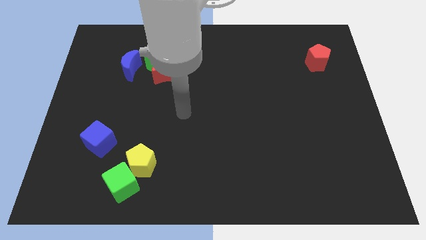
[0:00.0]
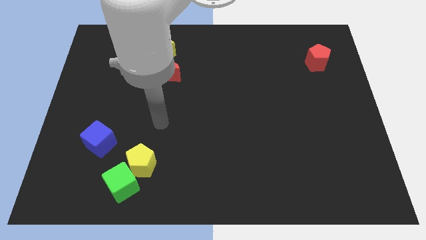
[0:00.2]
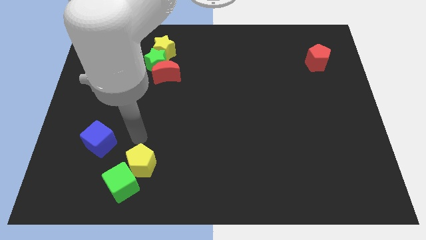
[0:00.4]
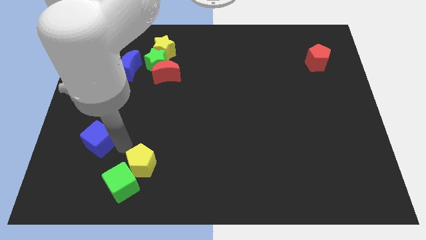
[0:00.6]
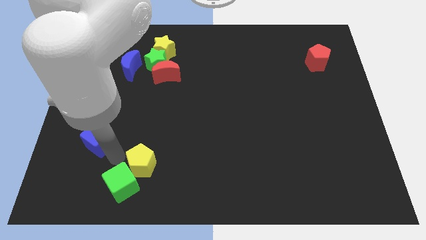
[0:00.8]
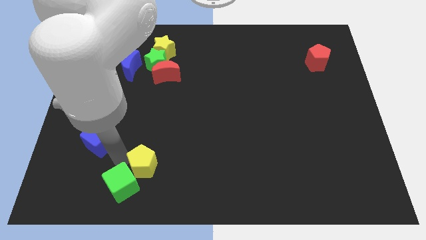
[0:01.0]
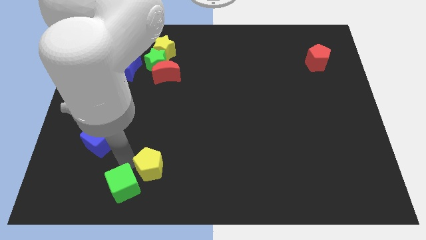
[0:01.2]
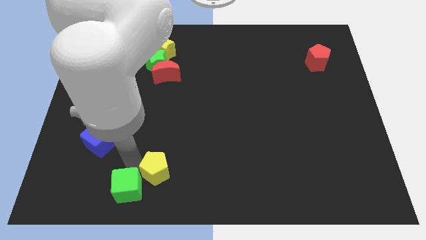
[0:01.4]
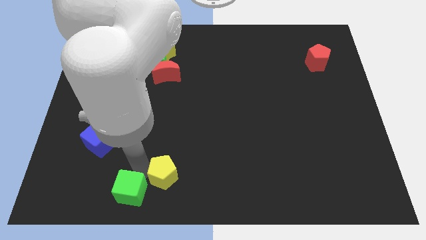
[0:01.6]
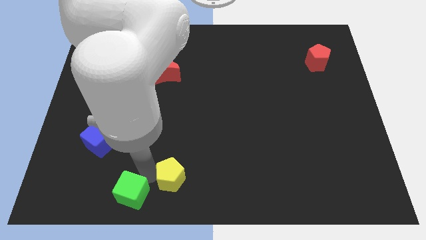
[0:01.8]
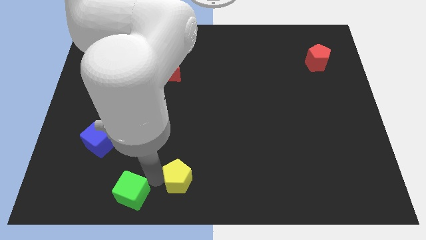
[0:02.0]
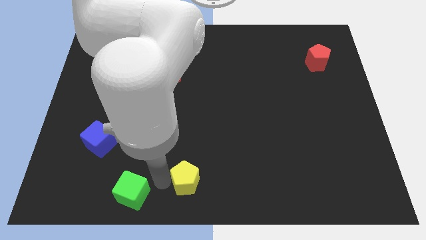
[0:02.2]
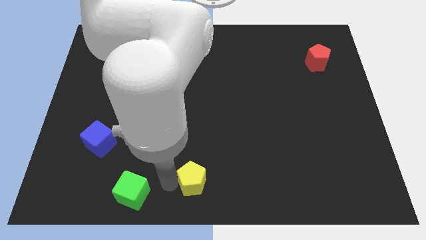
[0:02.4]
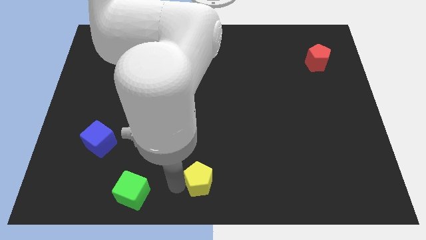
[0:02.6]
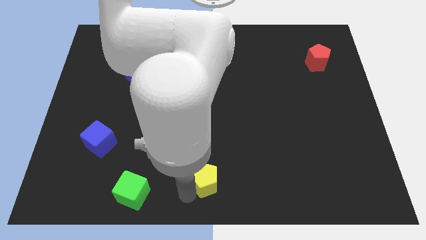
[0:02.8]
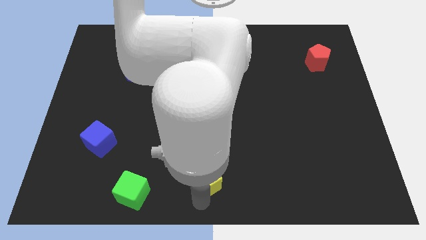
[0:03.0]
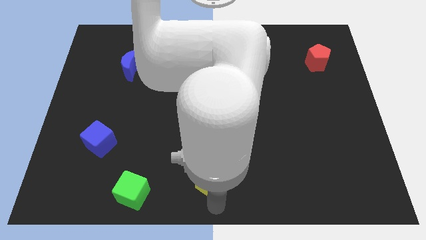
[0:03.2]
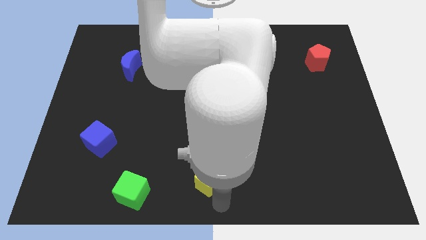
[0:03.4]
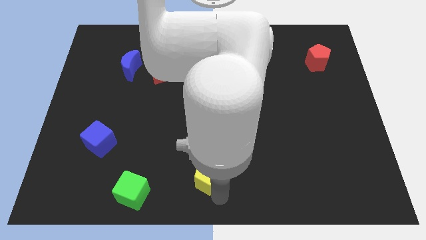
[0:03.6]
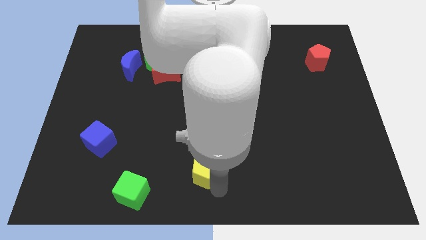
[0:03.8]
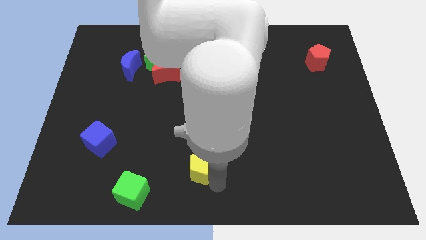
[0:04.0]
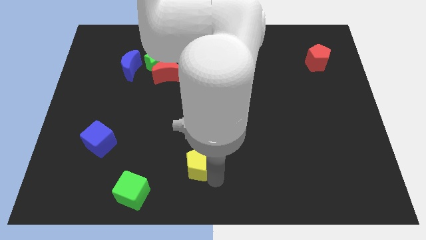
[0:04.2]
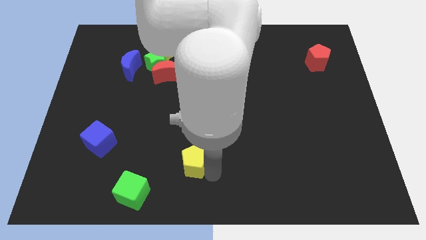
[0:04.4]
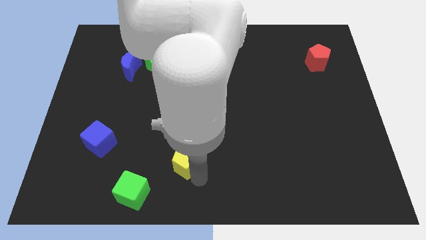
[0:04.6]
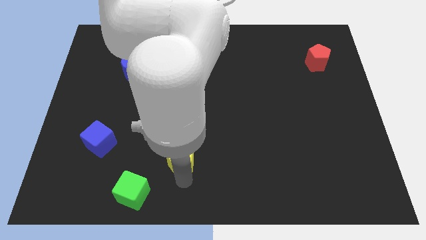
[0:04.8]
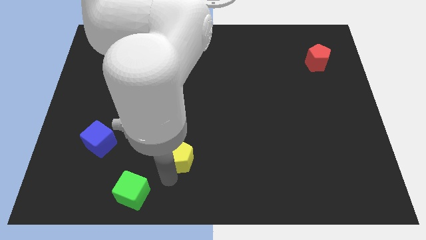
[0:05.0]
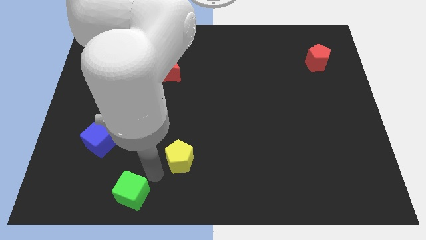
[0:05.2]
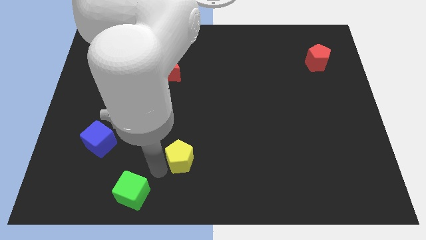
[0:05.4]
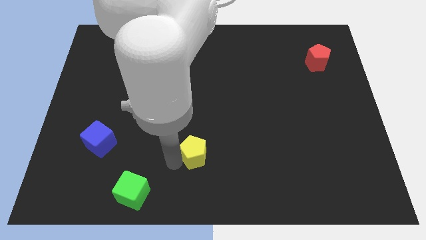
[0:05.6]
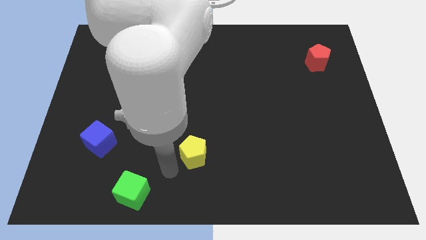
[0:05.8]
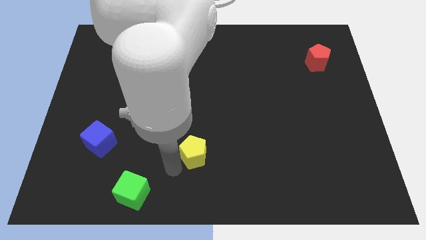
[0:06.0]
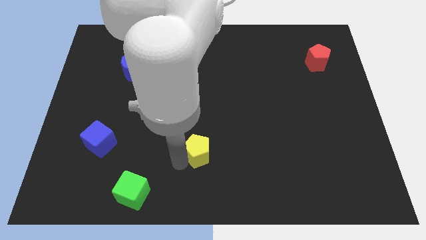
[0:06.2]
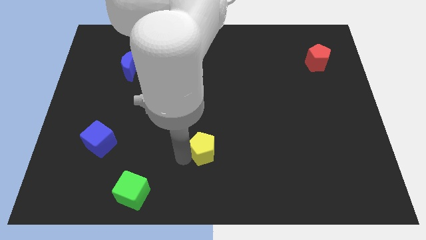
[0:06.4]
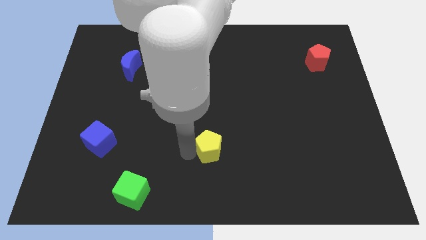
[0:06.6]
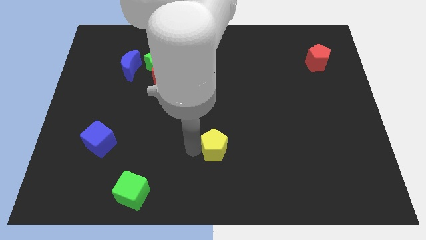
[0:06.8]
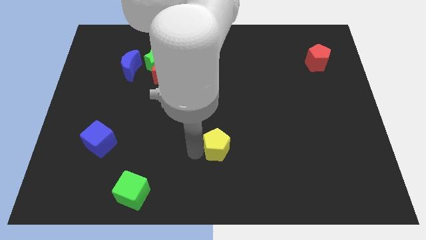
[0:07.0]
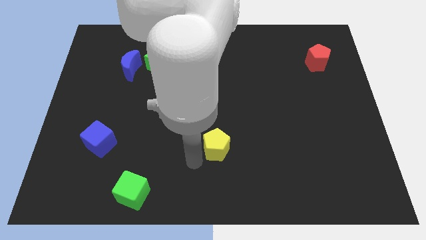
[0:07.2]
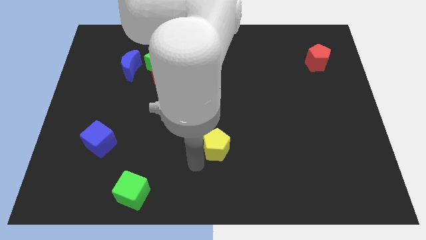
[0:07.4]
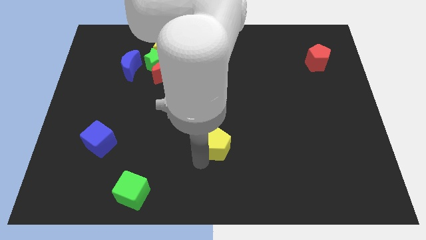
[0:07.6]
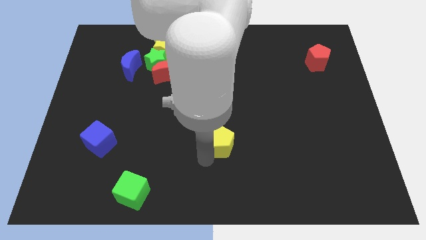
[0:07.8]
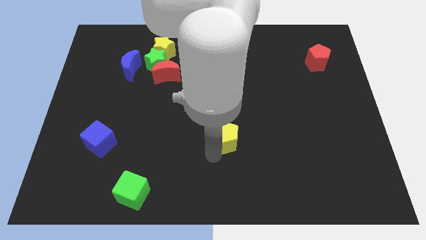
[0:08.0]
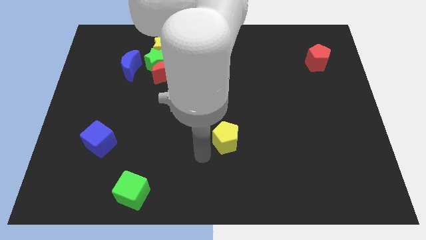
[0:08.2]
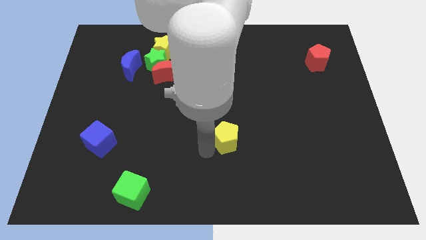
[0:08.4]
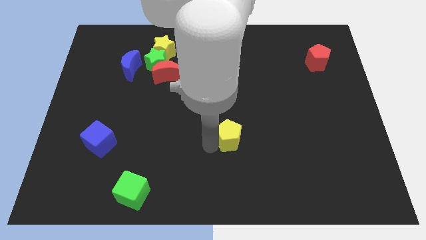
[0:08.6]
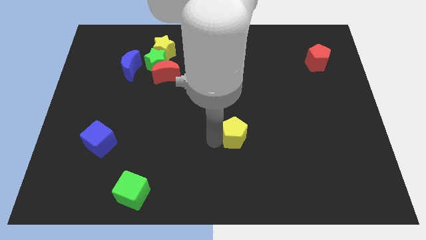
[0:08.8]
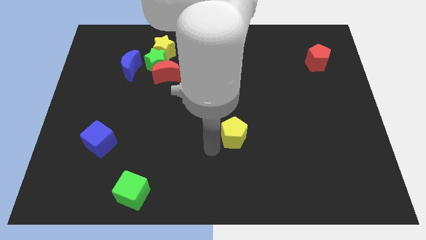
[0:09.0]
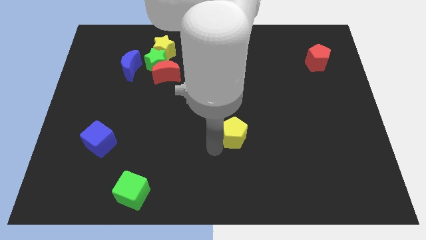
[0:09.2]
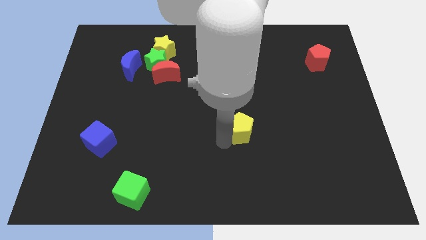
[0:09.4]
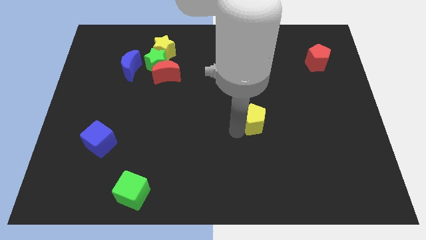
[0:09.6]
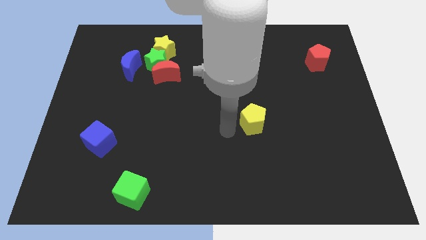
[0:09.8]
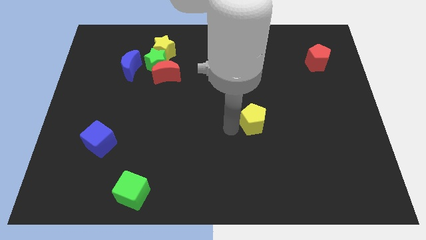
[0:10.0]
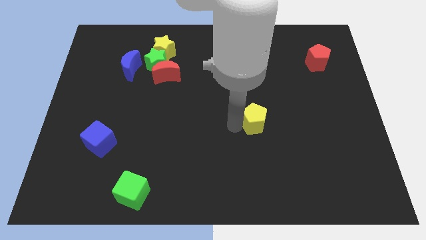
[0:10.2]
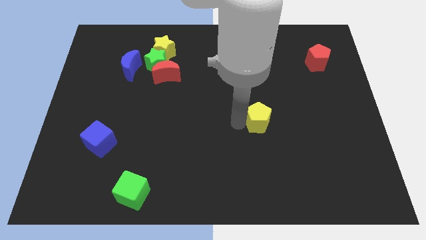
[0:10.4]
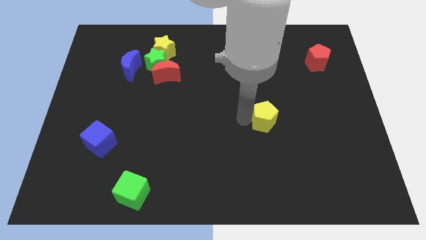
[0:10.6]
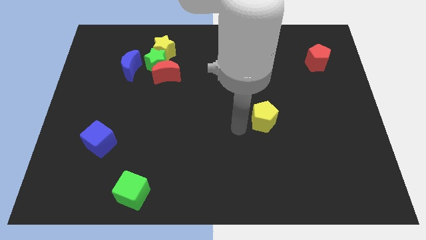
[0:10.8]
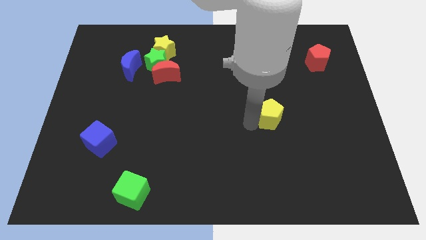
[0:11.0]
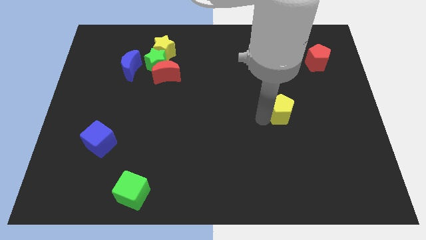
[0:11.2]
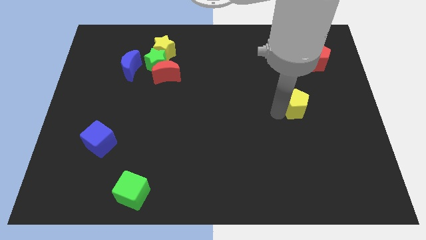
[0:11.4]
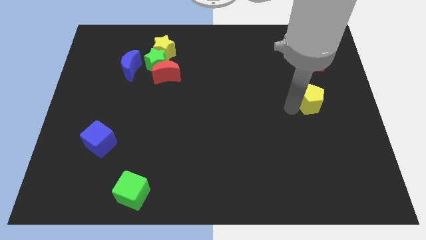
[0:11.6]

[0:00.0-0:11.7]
put the yellow pentagon to the bottom side of the red pentagon

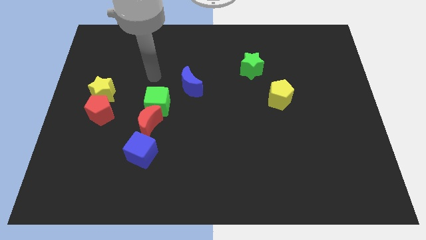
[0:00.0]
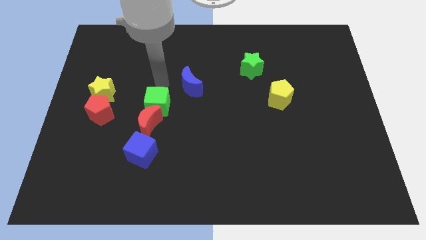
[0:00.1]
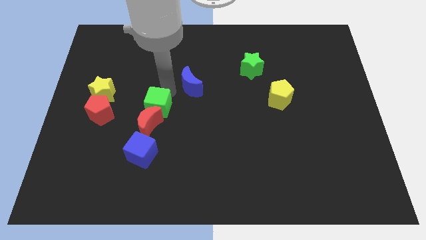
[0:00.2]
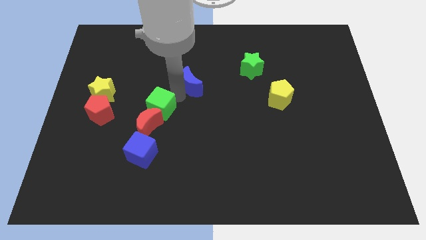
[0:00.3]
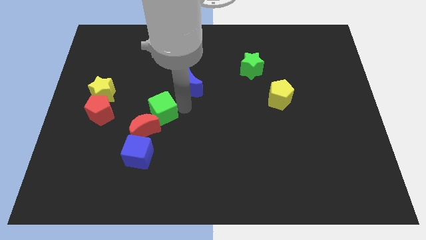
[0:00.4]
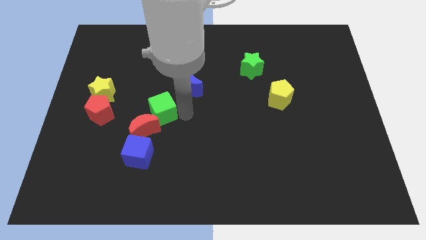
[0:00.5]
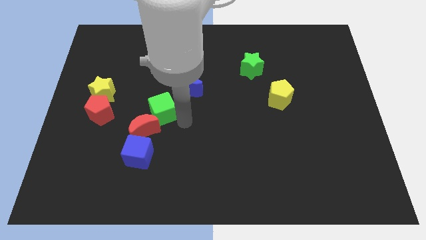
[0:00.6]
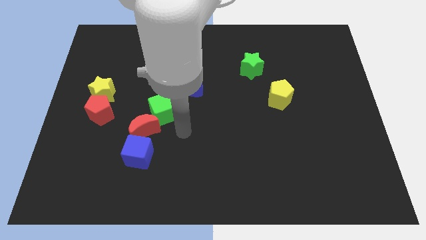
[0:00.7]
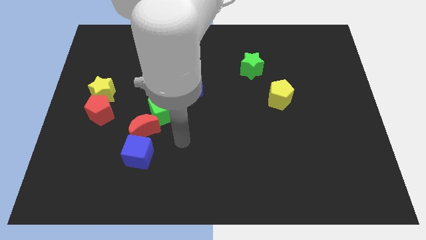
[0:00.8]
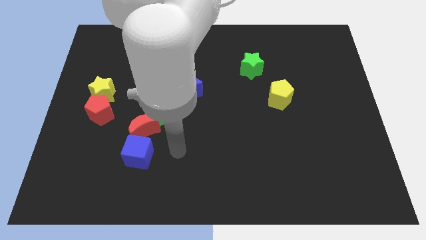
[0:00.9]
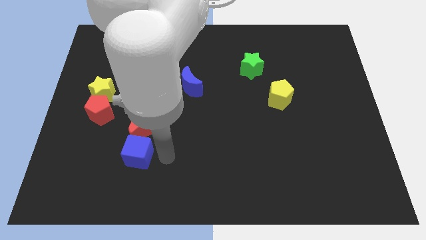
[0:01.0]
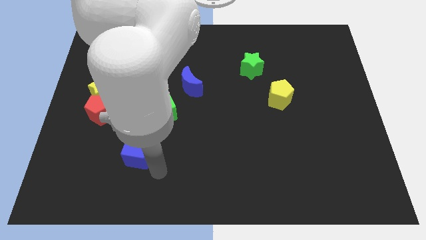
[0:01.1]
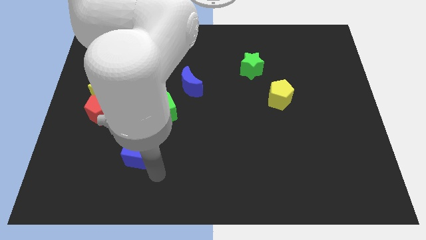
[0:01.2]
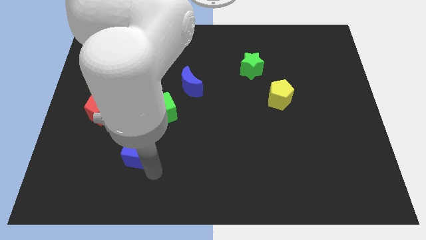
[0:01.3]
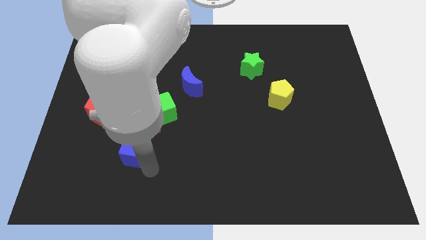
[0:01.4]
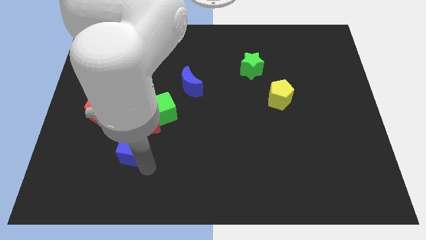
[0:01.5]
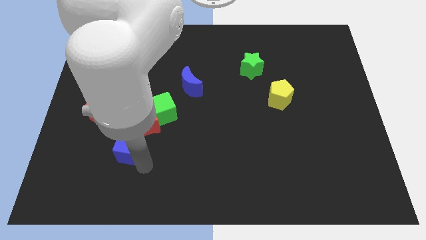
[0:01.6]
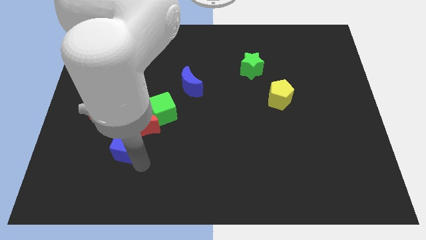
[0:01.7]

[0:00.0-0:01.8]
slide the blue cube diagonally down and to the right of the red pentagon
